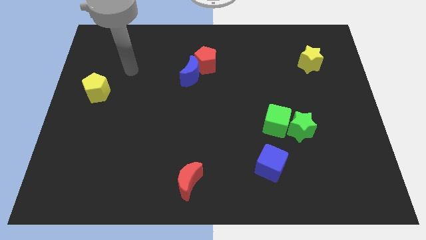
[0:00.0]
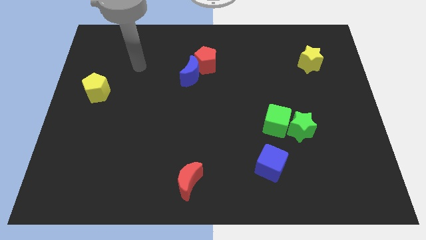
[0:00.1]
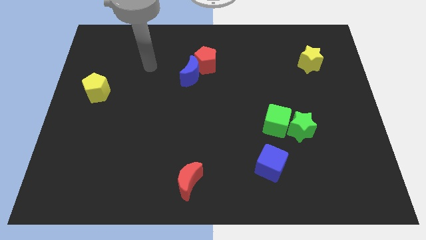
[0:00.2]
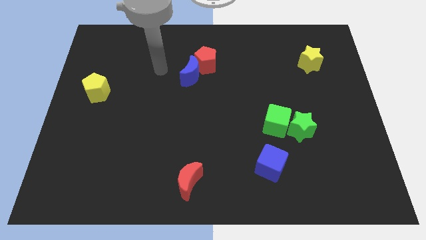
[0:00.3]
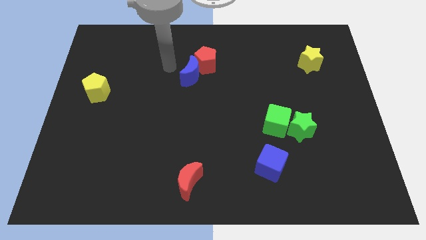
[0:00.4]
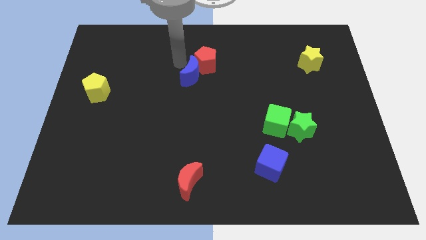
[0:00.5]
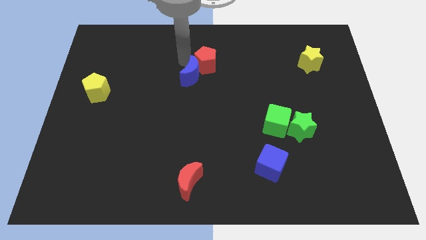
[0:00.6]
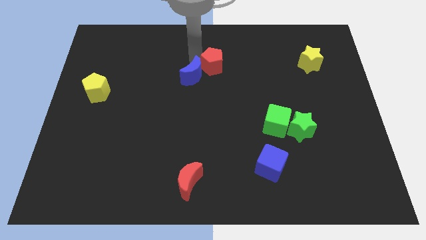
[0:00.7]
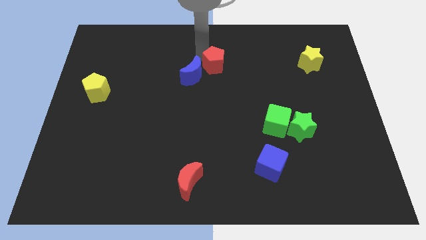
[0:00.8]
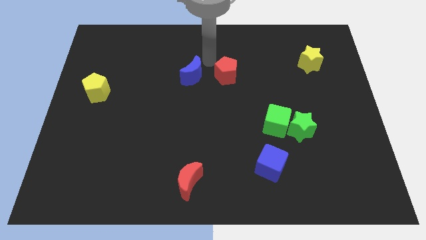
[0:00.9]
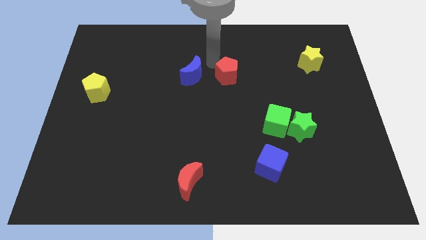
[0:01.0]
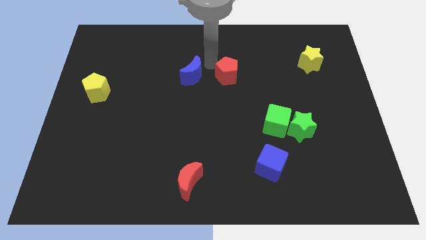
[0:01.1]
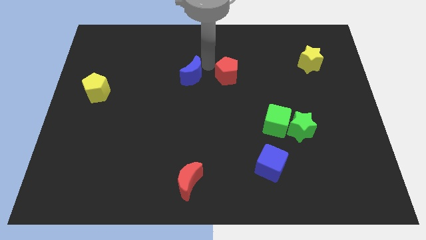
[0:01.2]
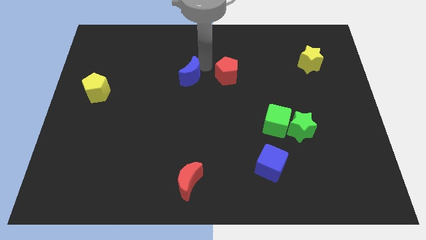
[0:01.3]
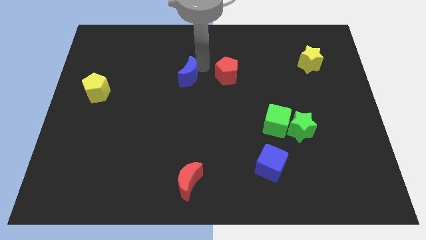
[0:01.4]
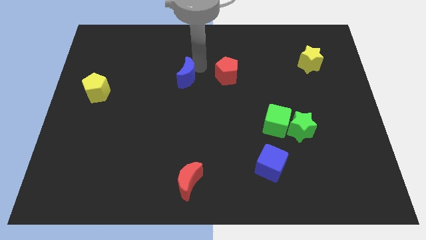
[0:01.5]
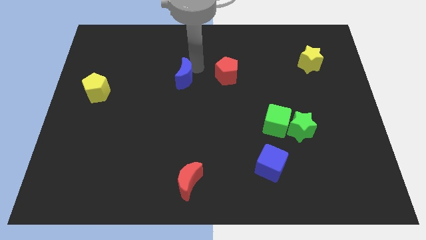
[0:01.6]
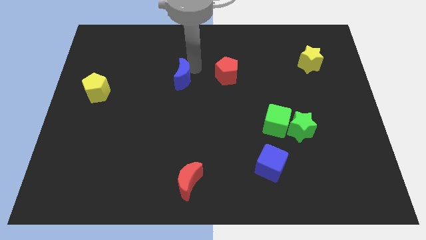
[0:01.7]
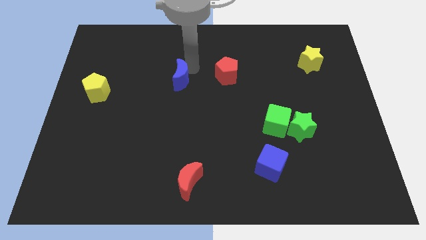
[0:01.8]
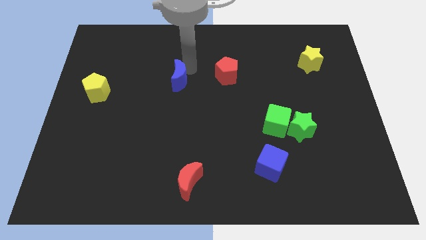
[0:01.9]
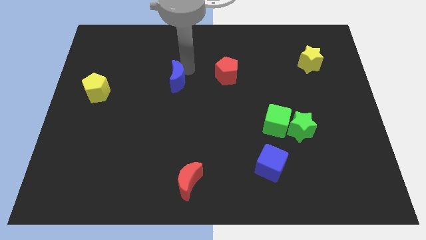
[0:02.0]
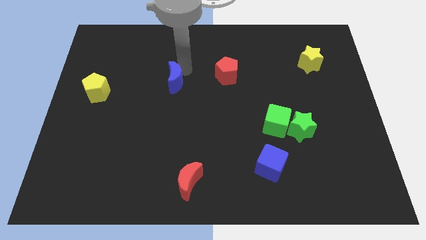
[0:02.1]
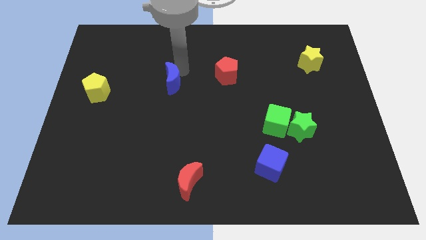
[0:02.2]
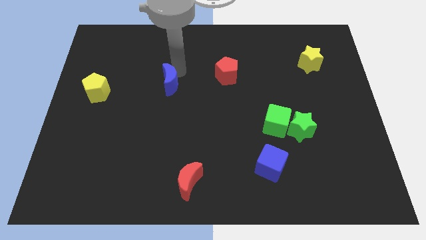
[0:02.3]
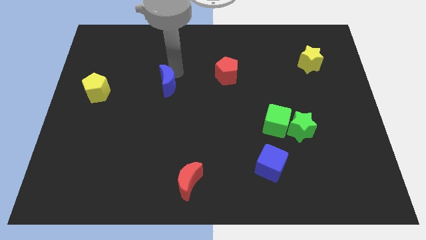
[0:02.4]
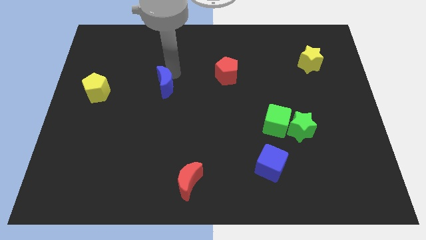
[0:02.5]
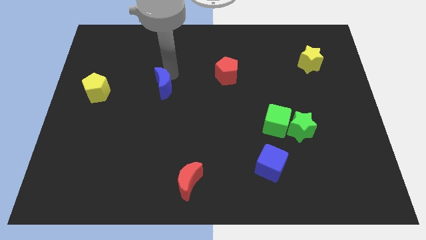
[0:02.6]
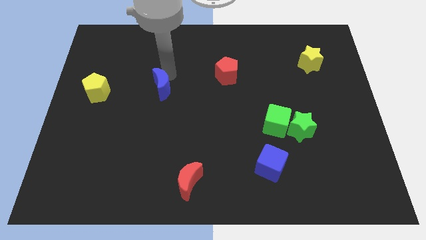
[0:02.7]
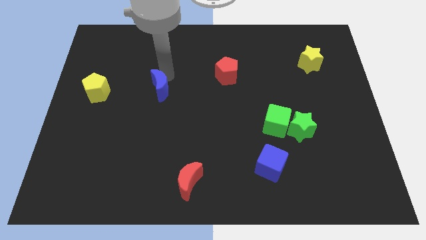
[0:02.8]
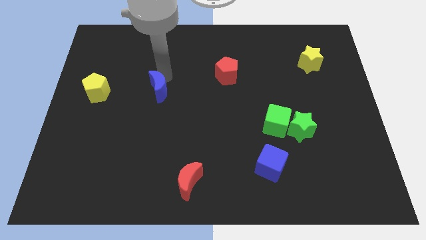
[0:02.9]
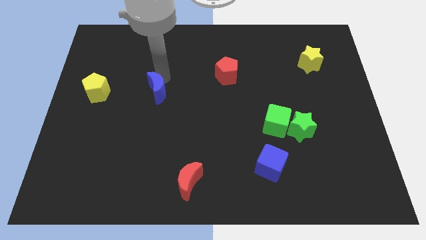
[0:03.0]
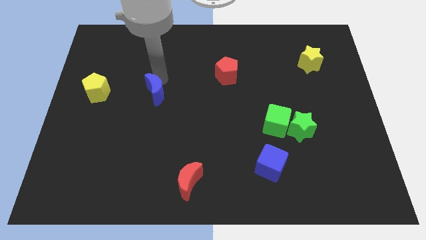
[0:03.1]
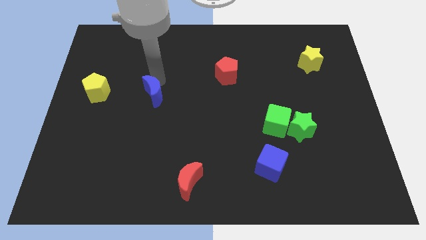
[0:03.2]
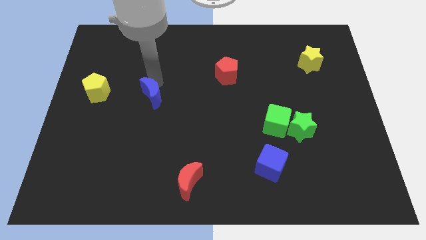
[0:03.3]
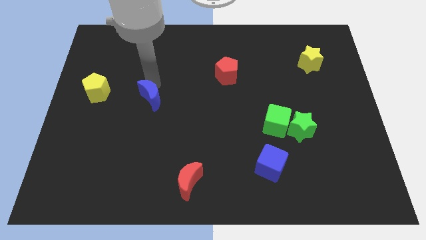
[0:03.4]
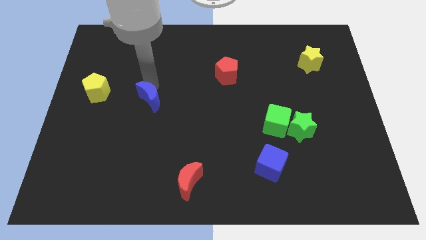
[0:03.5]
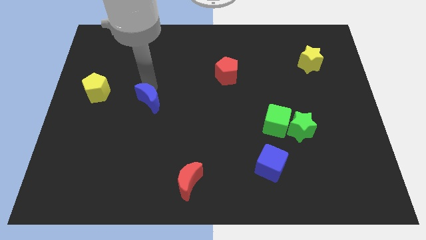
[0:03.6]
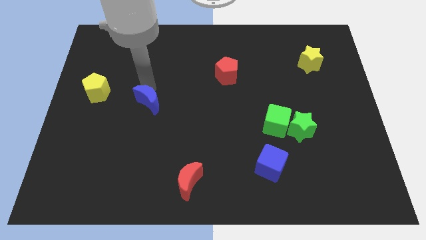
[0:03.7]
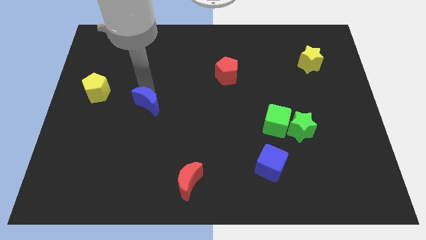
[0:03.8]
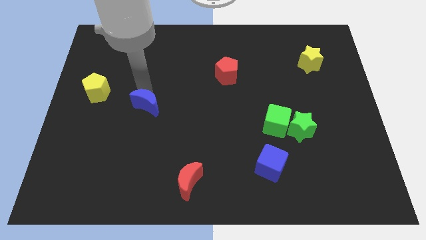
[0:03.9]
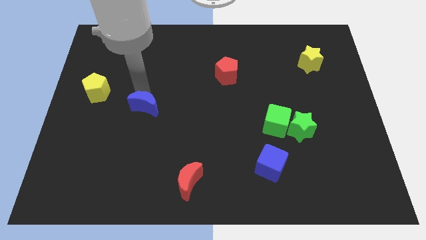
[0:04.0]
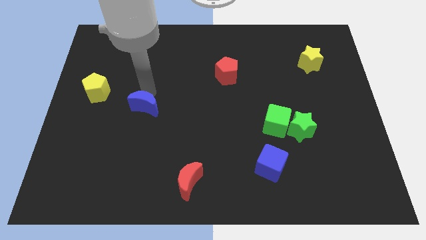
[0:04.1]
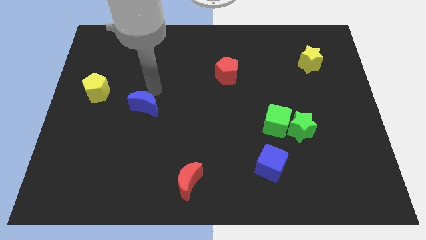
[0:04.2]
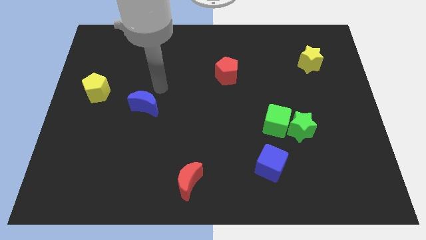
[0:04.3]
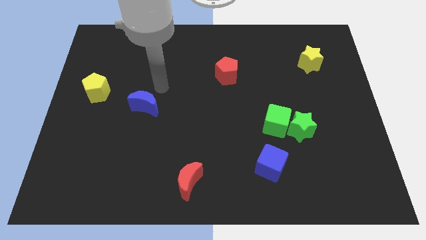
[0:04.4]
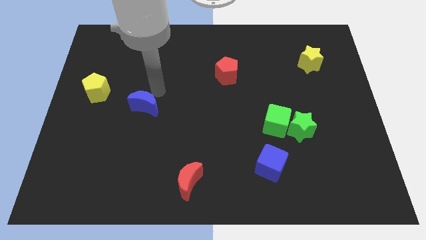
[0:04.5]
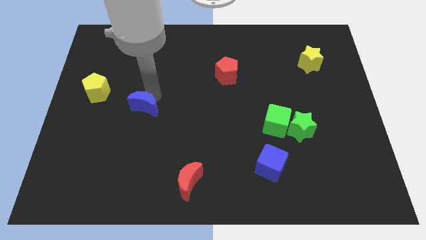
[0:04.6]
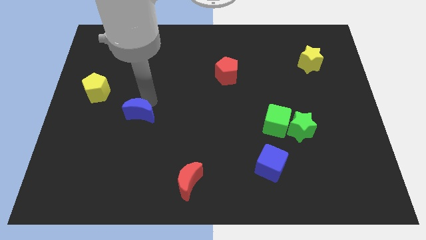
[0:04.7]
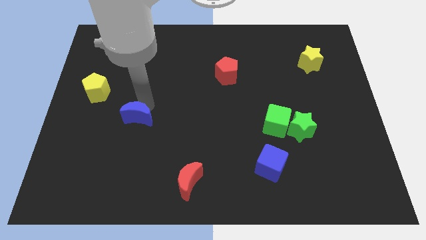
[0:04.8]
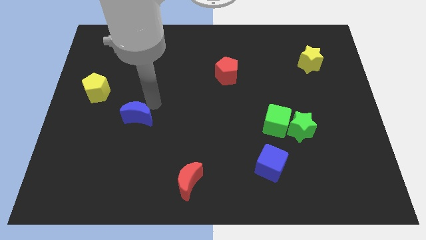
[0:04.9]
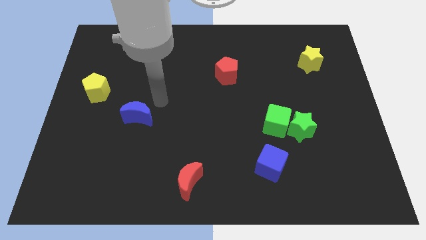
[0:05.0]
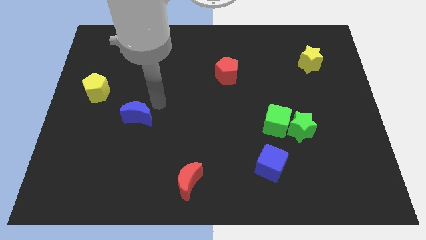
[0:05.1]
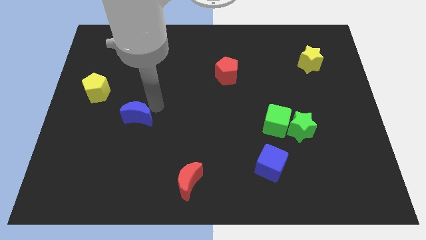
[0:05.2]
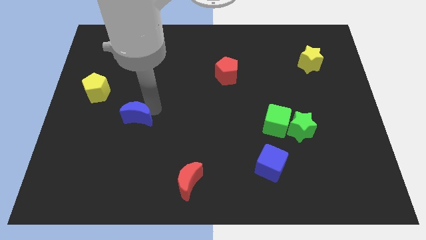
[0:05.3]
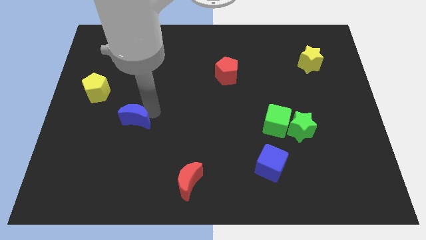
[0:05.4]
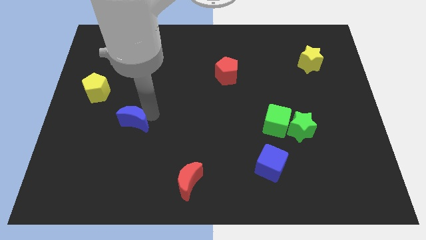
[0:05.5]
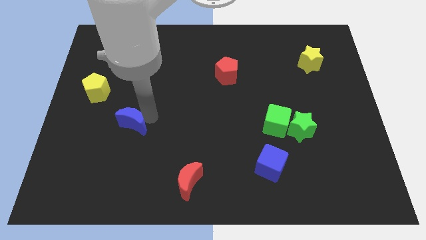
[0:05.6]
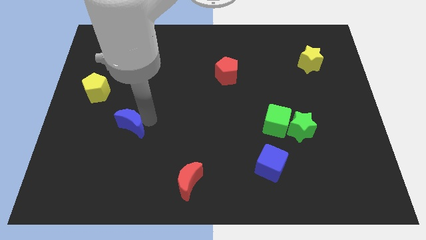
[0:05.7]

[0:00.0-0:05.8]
push the blue moon diagonally down and left

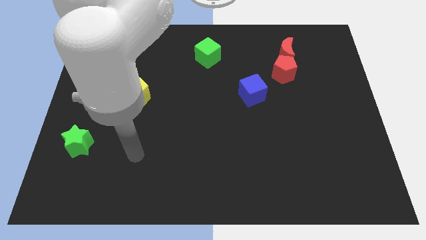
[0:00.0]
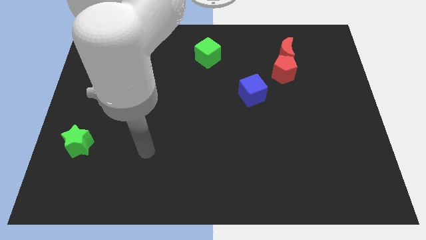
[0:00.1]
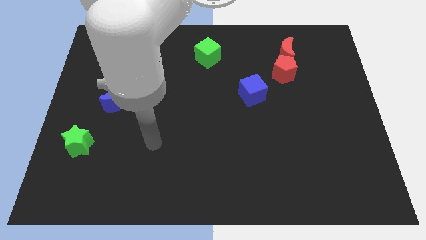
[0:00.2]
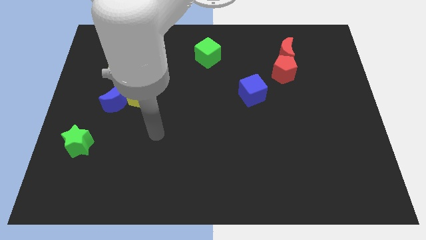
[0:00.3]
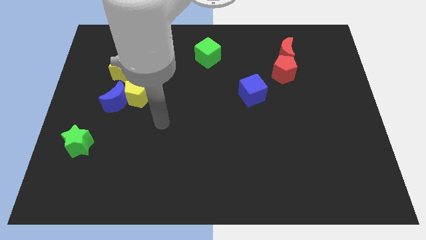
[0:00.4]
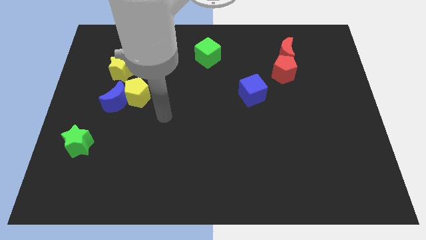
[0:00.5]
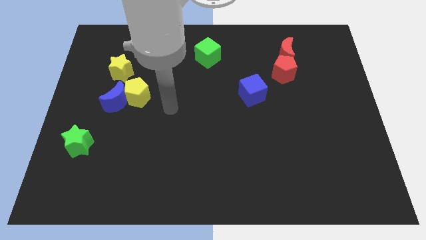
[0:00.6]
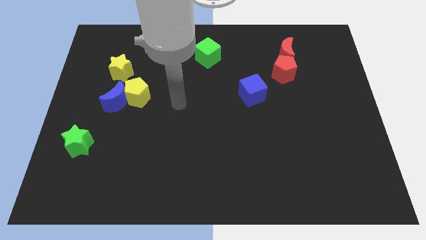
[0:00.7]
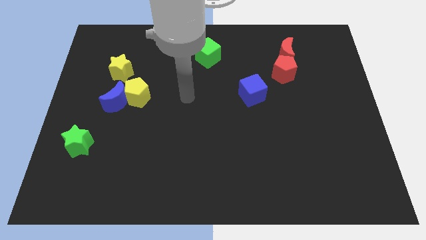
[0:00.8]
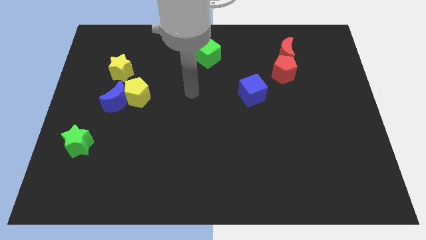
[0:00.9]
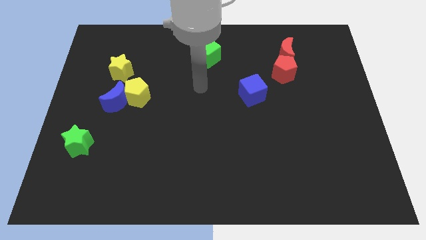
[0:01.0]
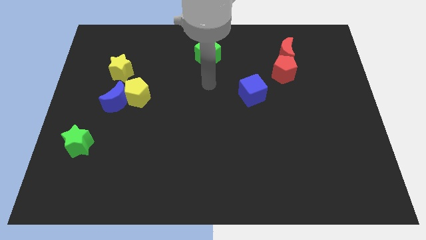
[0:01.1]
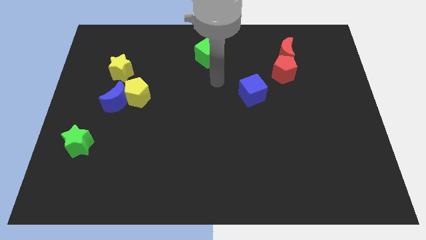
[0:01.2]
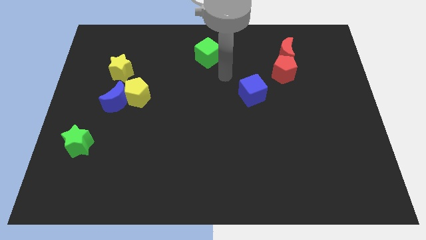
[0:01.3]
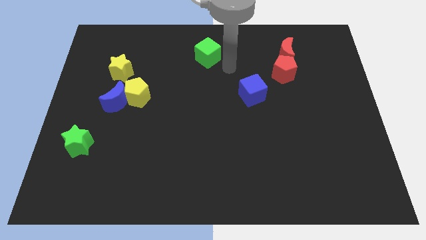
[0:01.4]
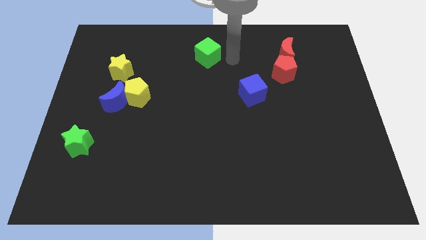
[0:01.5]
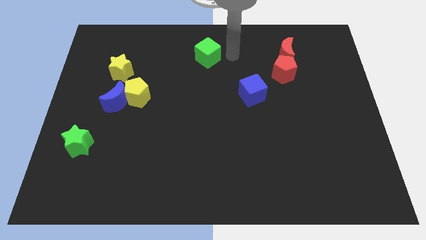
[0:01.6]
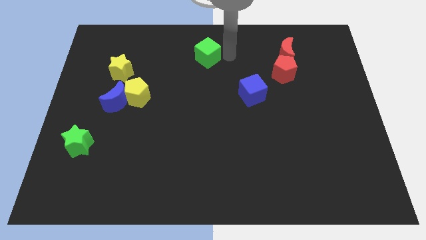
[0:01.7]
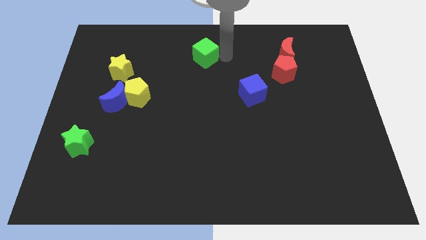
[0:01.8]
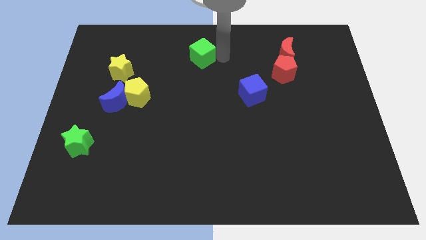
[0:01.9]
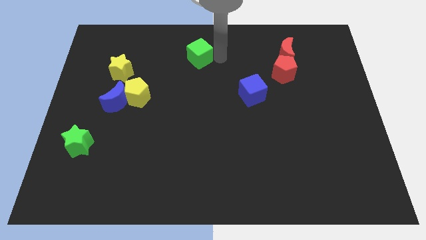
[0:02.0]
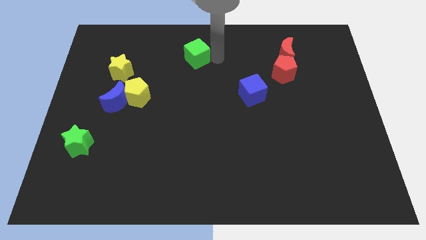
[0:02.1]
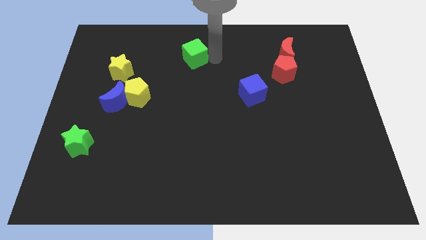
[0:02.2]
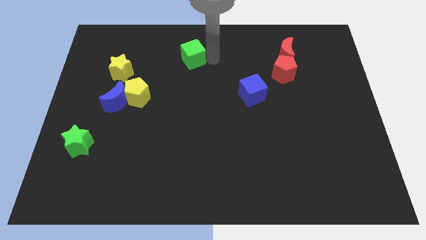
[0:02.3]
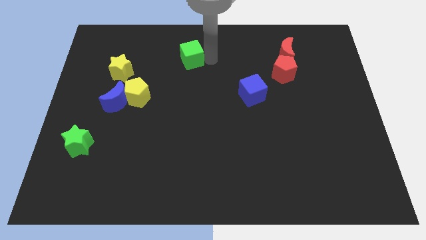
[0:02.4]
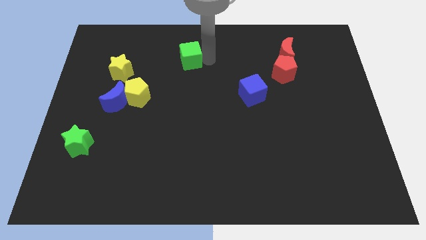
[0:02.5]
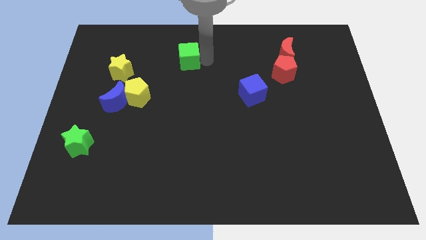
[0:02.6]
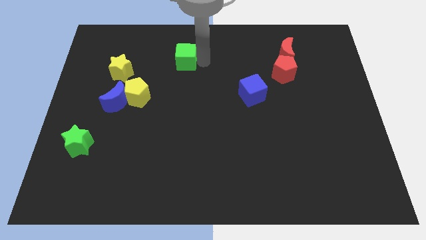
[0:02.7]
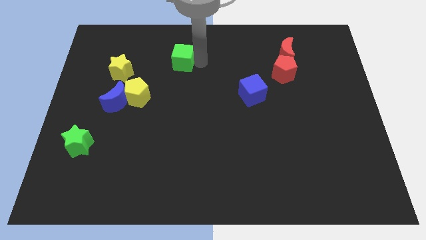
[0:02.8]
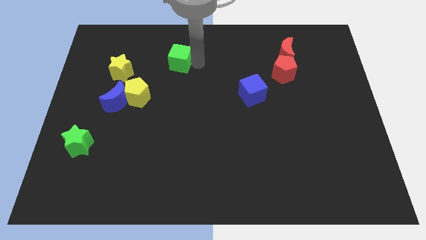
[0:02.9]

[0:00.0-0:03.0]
slightly slide the green cube to the left
